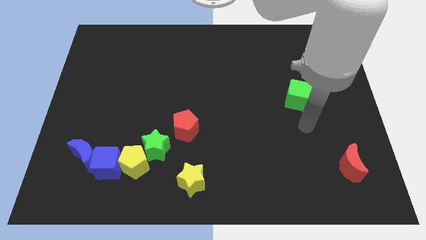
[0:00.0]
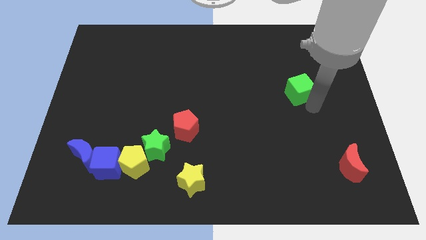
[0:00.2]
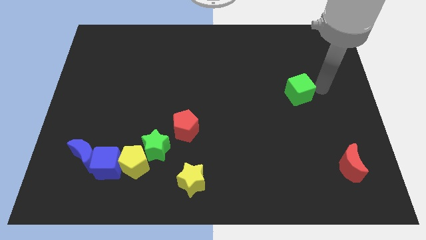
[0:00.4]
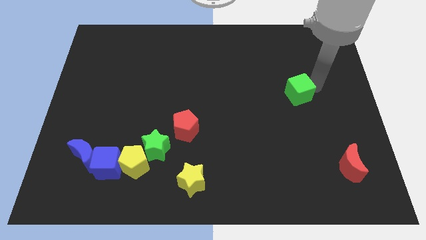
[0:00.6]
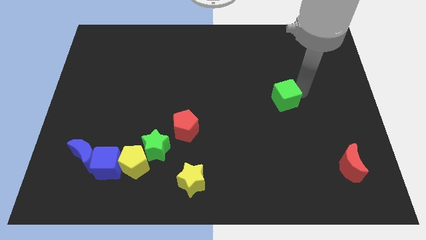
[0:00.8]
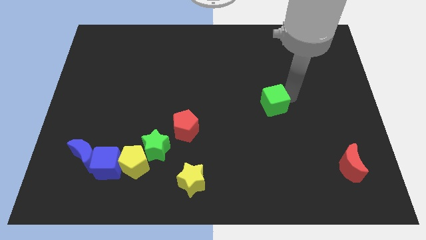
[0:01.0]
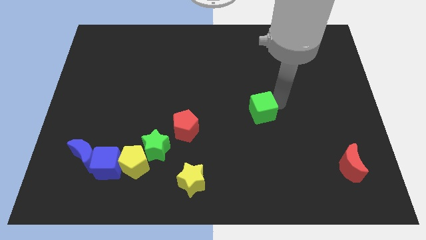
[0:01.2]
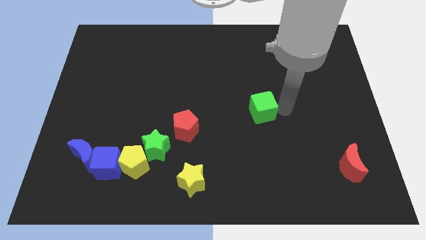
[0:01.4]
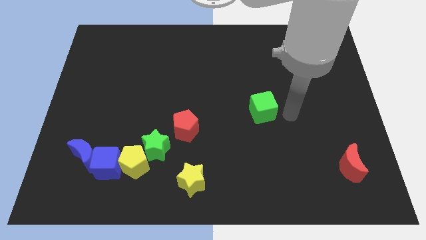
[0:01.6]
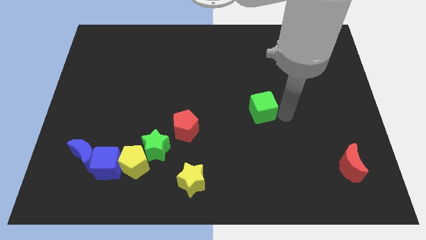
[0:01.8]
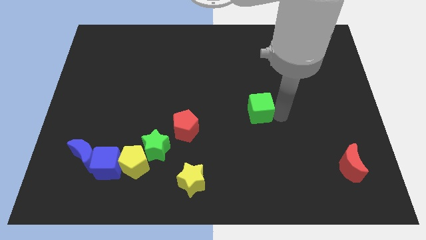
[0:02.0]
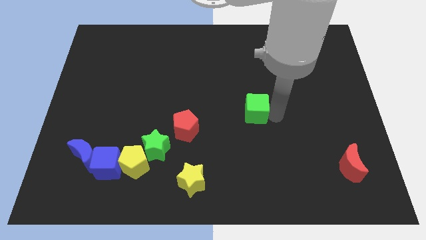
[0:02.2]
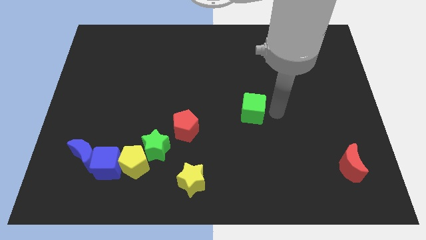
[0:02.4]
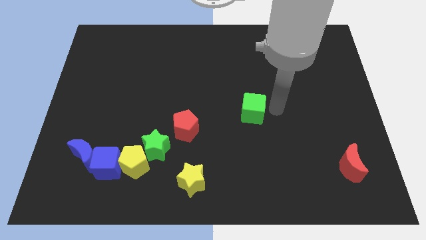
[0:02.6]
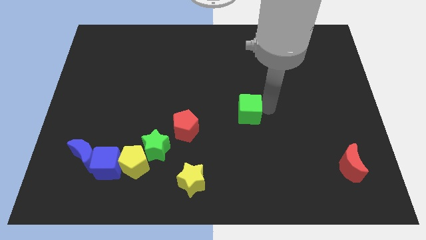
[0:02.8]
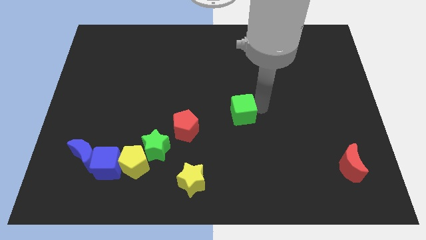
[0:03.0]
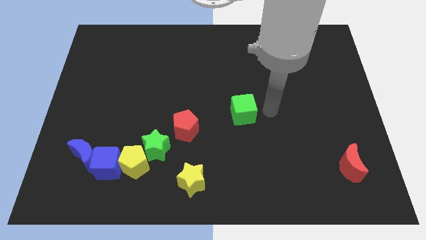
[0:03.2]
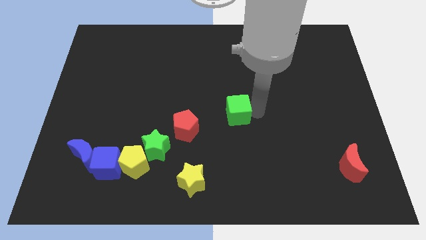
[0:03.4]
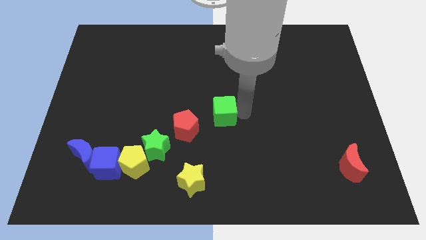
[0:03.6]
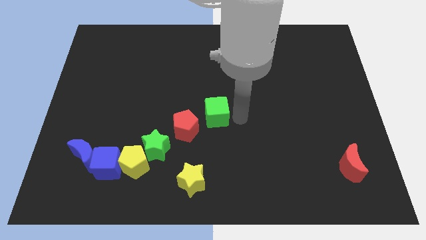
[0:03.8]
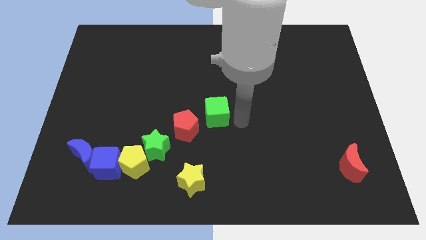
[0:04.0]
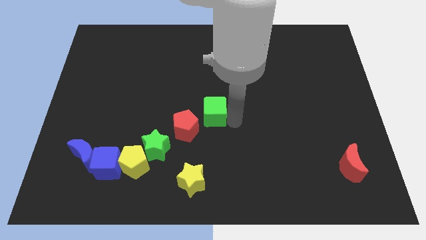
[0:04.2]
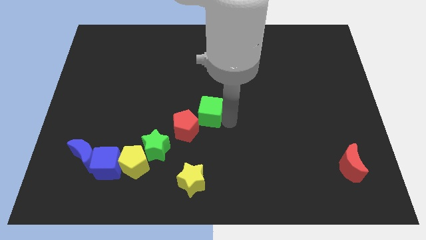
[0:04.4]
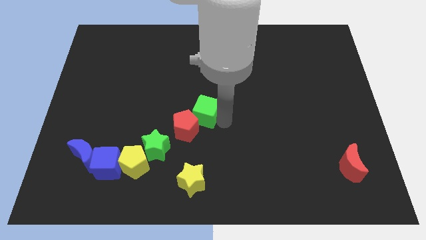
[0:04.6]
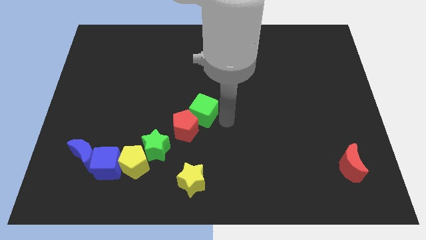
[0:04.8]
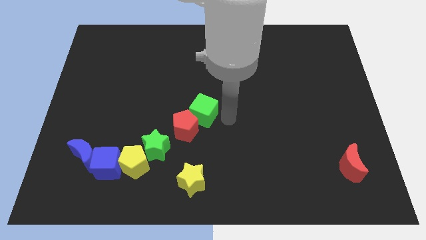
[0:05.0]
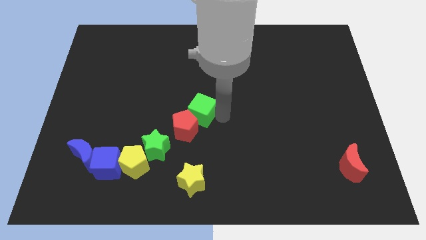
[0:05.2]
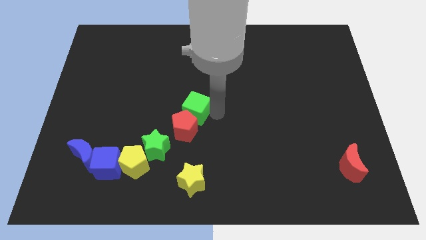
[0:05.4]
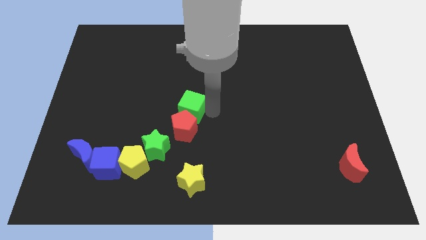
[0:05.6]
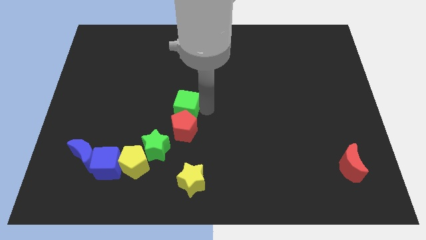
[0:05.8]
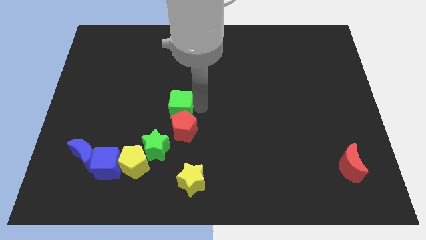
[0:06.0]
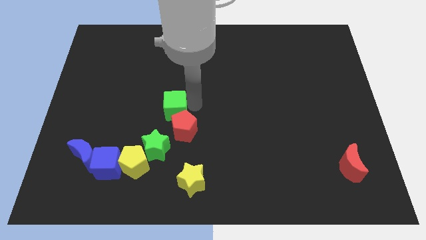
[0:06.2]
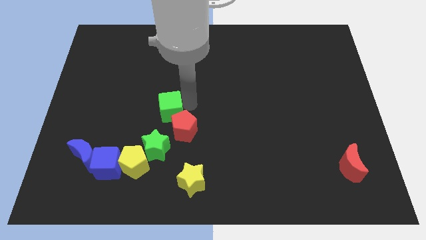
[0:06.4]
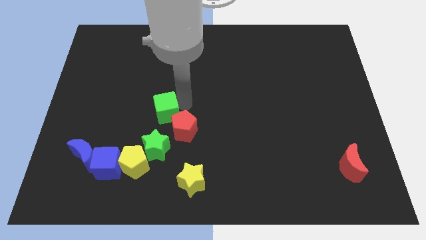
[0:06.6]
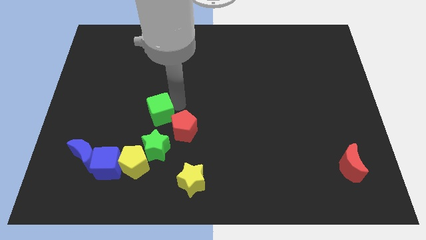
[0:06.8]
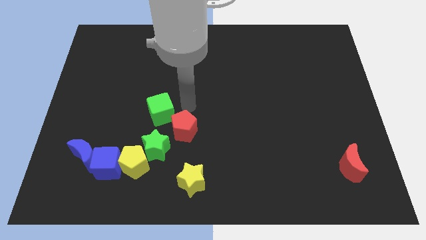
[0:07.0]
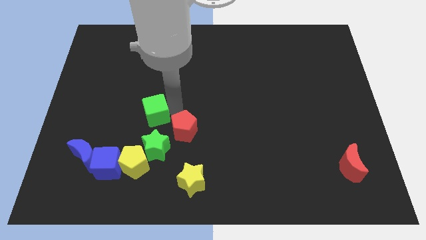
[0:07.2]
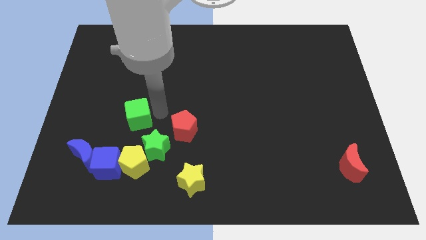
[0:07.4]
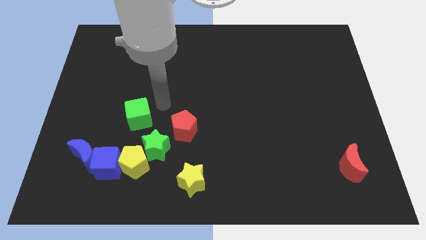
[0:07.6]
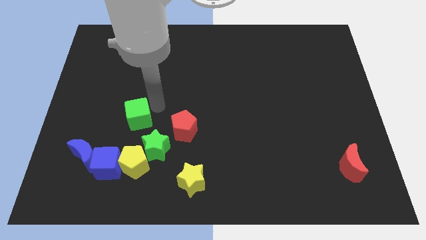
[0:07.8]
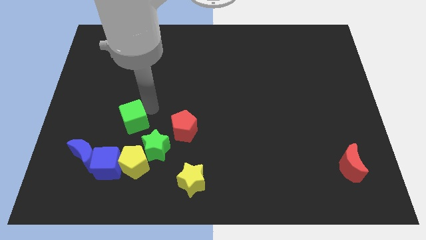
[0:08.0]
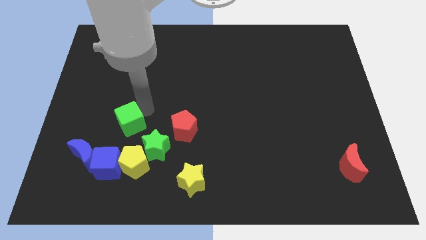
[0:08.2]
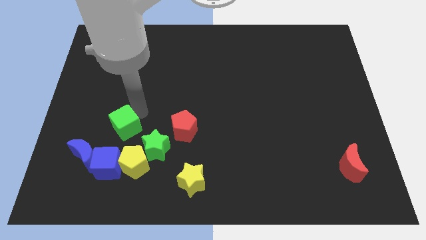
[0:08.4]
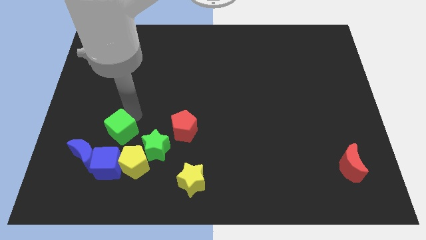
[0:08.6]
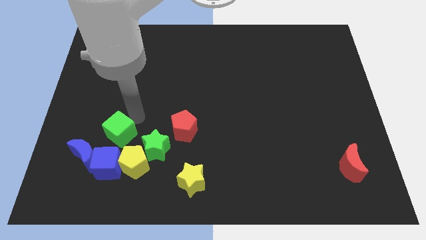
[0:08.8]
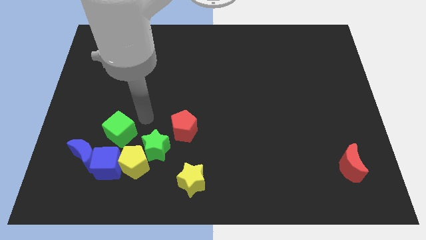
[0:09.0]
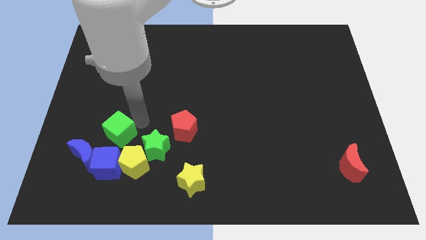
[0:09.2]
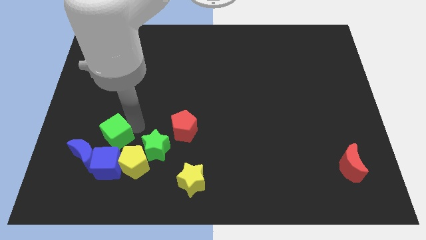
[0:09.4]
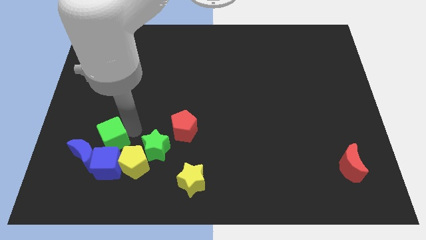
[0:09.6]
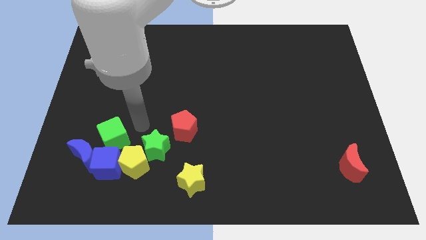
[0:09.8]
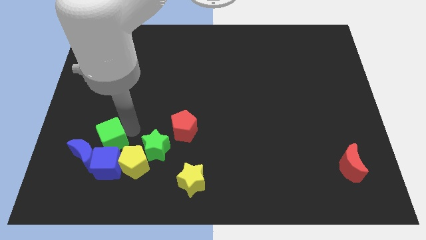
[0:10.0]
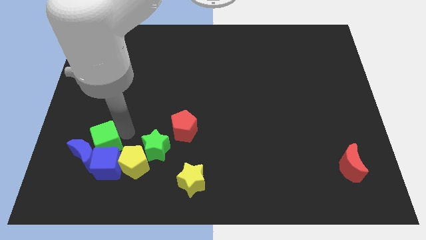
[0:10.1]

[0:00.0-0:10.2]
slide the green cube next to the blue moon

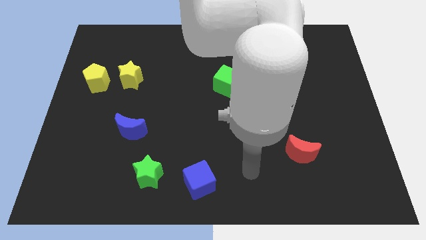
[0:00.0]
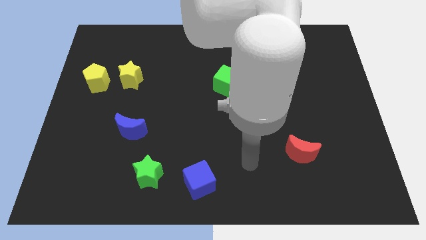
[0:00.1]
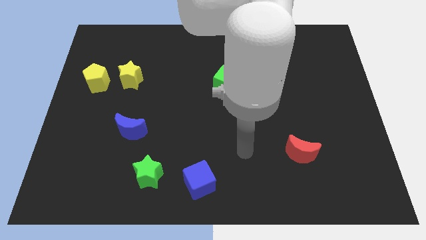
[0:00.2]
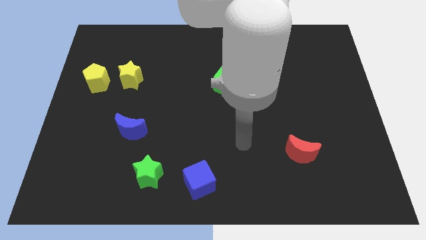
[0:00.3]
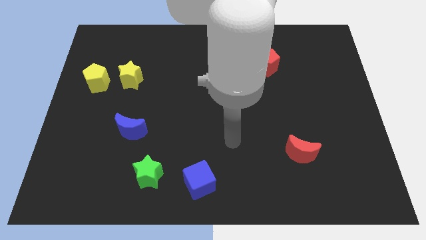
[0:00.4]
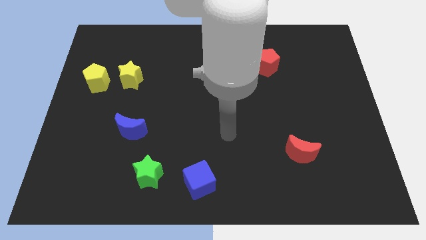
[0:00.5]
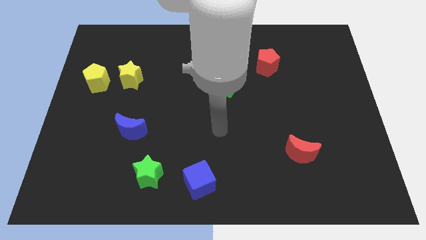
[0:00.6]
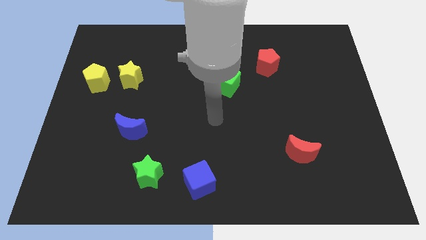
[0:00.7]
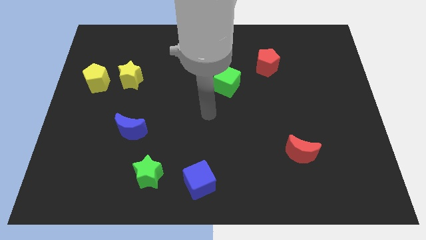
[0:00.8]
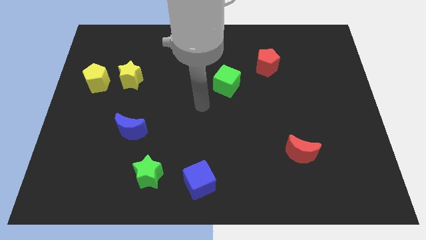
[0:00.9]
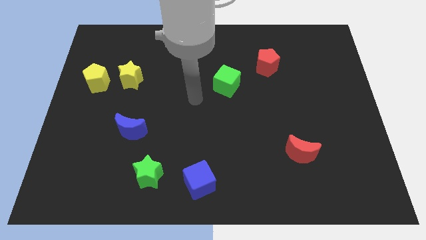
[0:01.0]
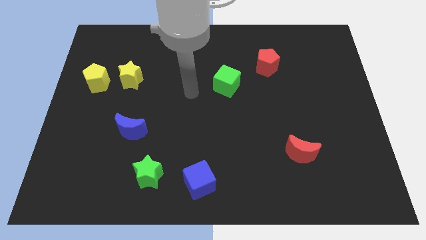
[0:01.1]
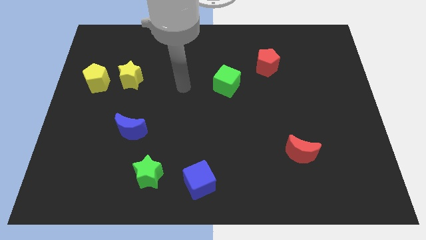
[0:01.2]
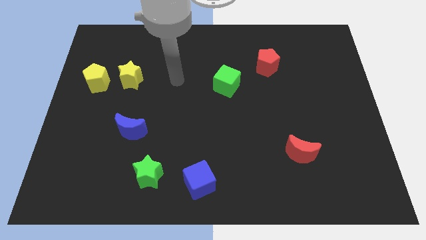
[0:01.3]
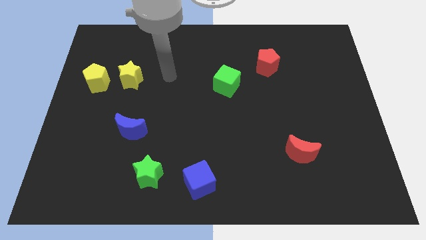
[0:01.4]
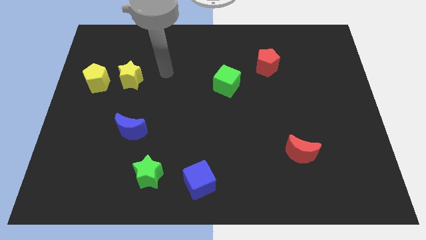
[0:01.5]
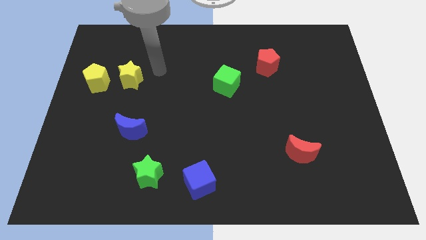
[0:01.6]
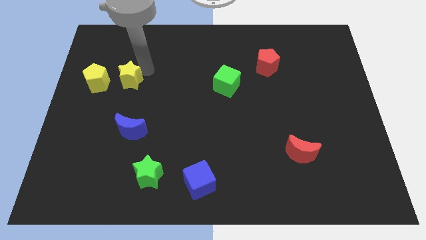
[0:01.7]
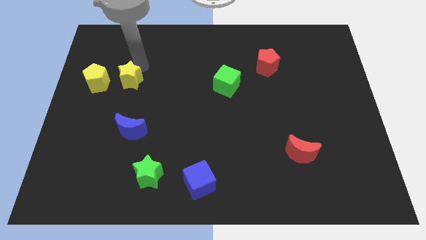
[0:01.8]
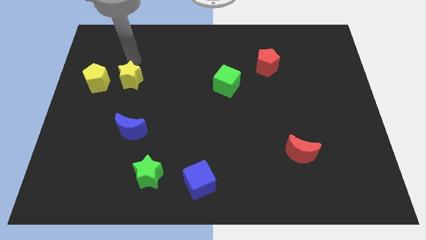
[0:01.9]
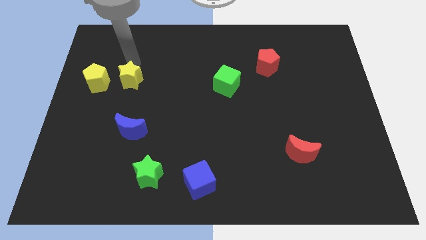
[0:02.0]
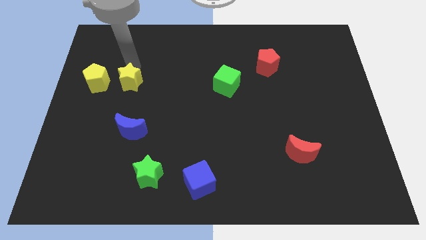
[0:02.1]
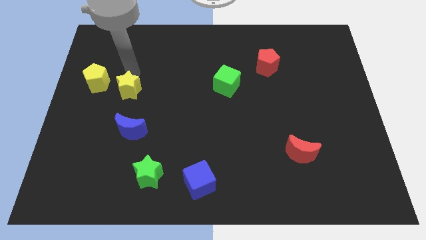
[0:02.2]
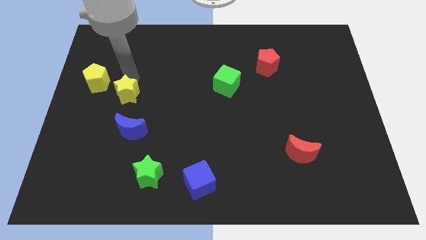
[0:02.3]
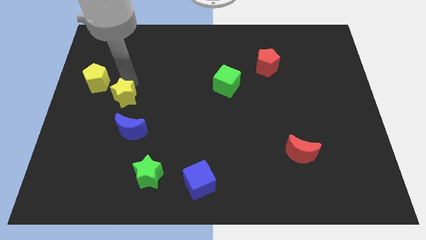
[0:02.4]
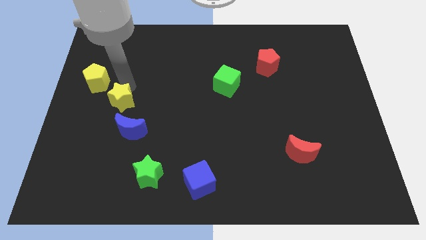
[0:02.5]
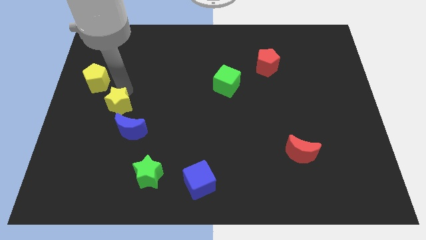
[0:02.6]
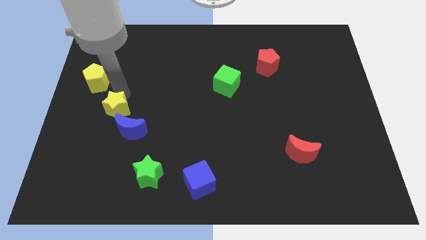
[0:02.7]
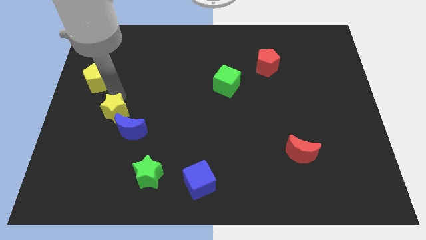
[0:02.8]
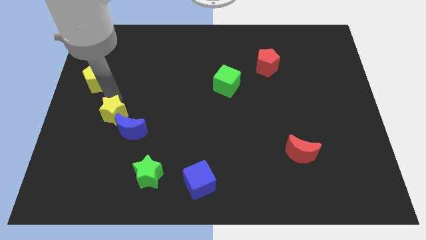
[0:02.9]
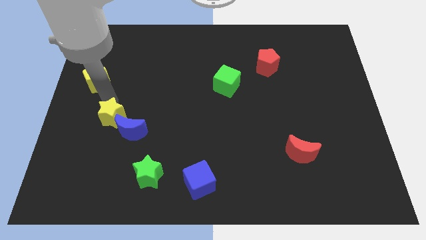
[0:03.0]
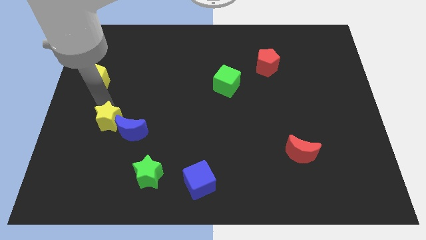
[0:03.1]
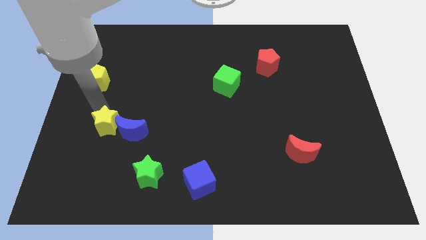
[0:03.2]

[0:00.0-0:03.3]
move the yellow star next to the blue moon
